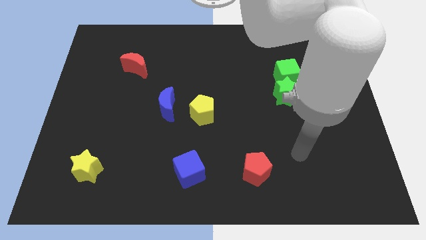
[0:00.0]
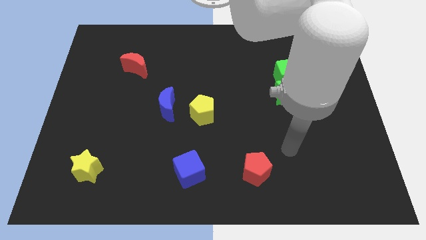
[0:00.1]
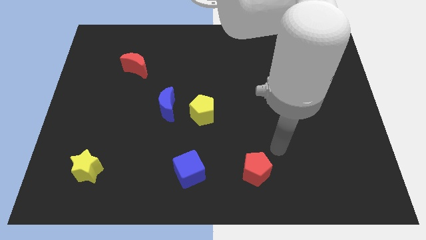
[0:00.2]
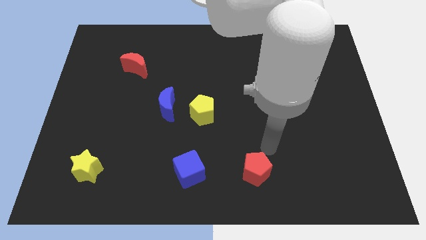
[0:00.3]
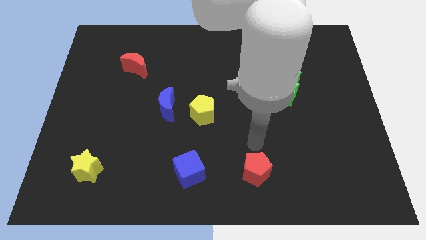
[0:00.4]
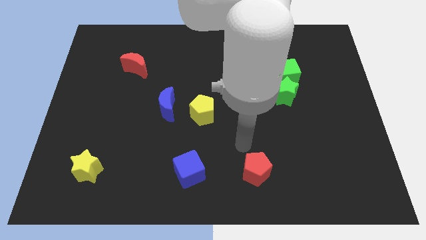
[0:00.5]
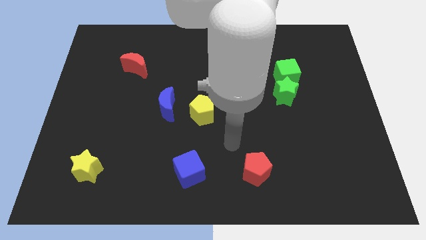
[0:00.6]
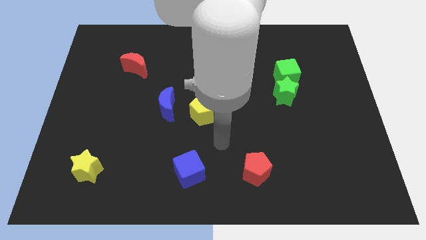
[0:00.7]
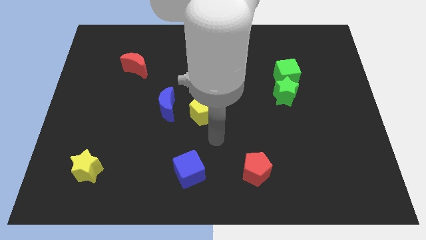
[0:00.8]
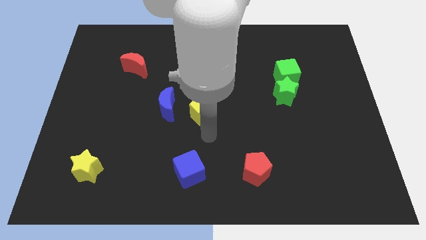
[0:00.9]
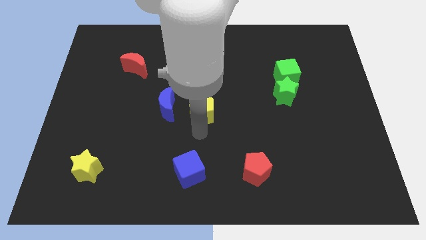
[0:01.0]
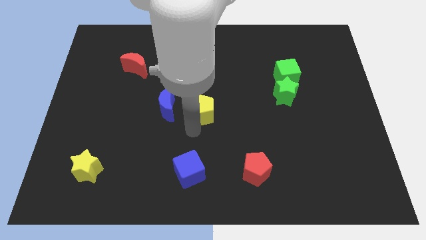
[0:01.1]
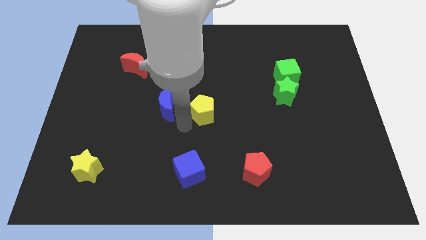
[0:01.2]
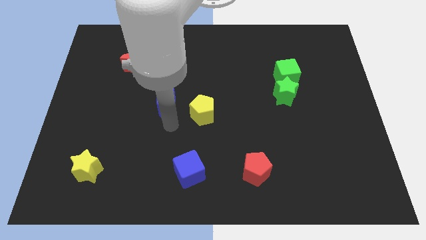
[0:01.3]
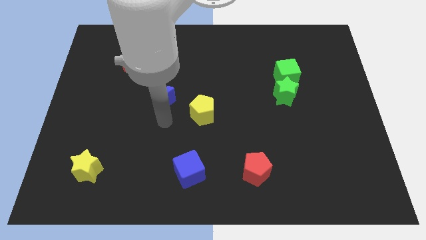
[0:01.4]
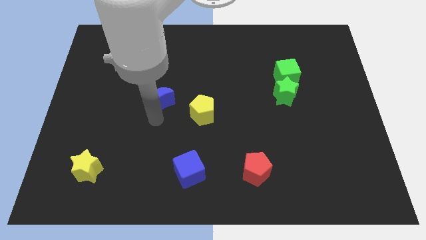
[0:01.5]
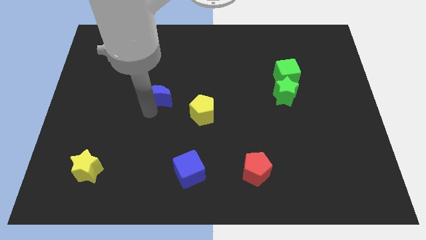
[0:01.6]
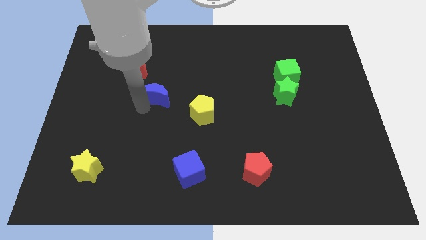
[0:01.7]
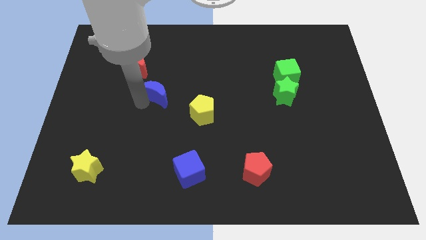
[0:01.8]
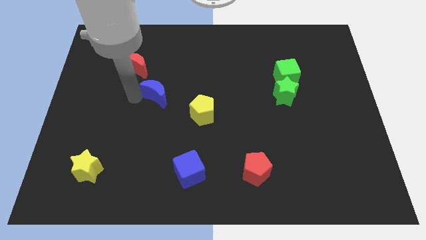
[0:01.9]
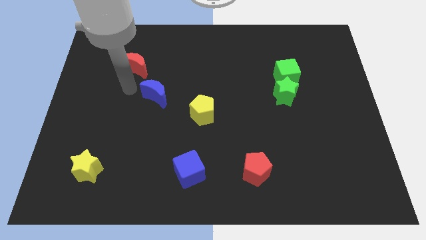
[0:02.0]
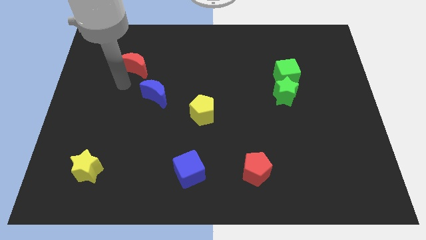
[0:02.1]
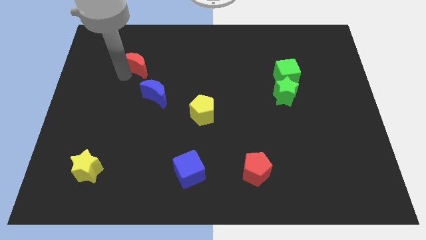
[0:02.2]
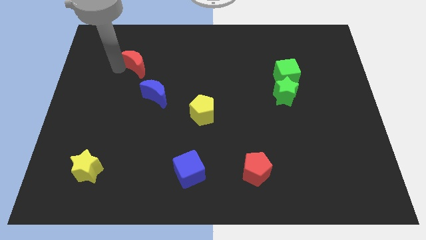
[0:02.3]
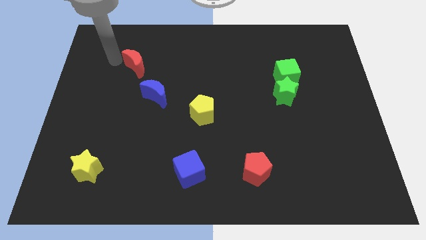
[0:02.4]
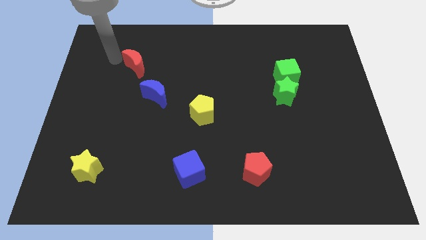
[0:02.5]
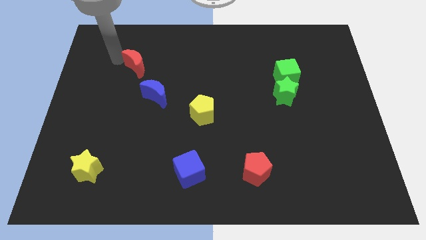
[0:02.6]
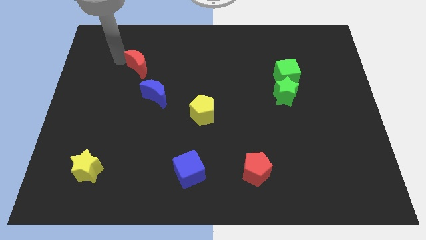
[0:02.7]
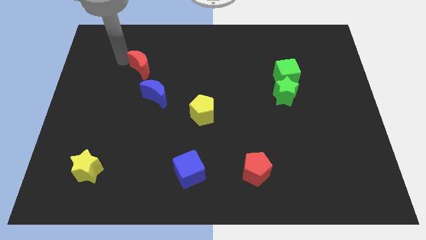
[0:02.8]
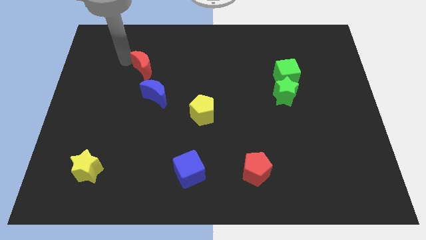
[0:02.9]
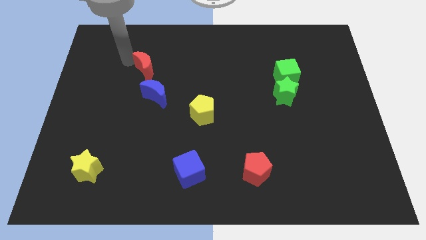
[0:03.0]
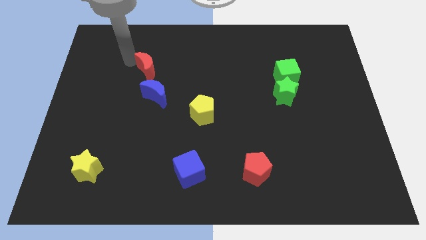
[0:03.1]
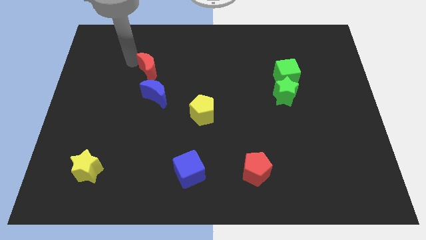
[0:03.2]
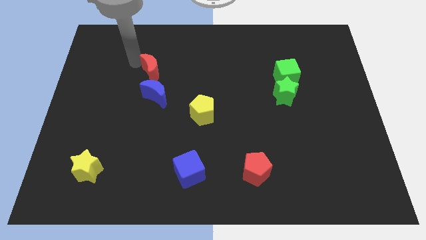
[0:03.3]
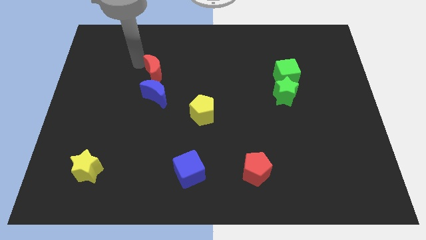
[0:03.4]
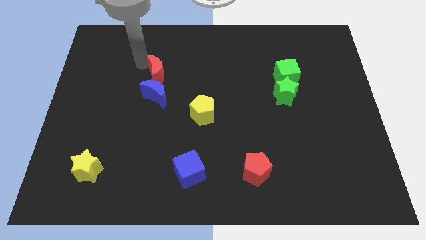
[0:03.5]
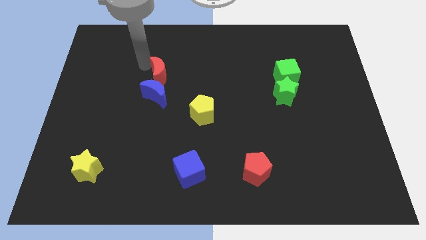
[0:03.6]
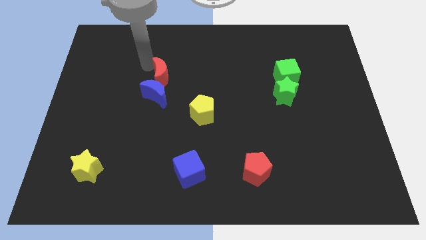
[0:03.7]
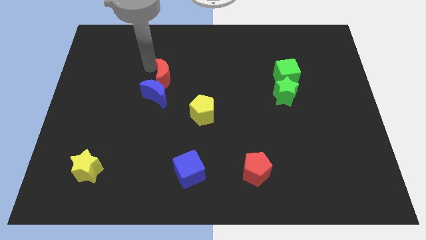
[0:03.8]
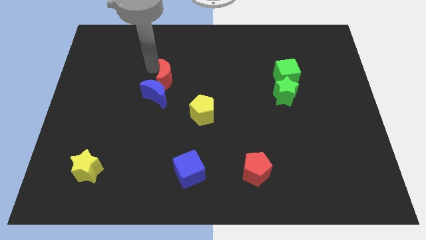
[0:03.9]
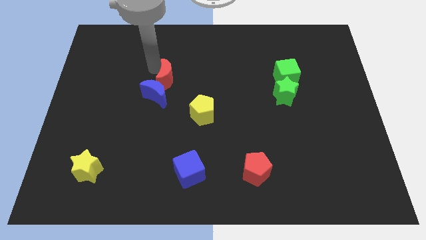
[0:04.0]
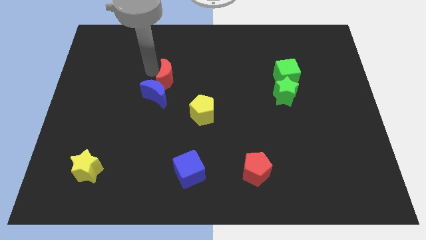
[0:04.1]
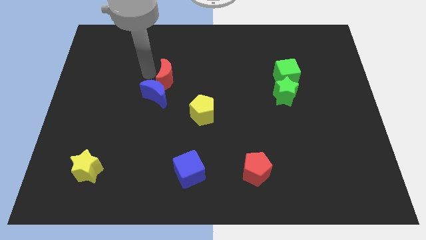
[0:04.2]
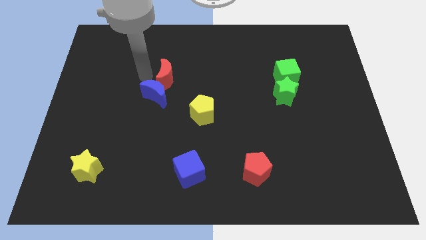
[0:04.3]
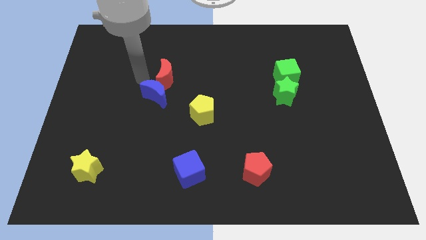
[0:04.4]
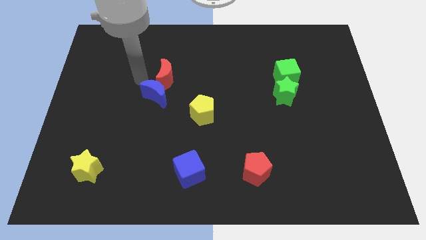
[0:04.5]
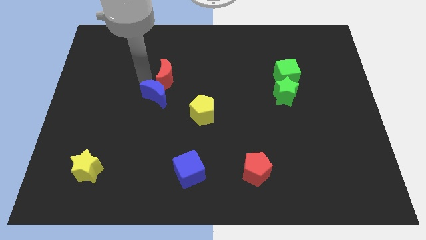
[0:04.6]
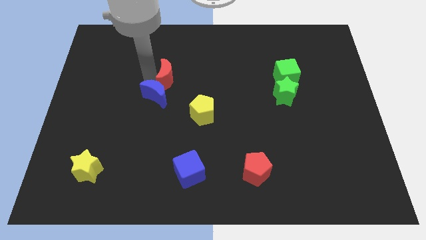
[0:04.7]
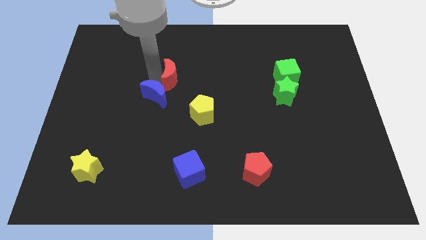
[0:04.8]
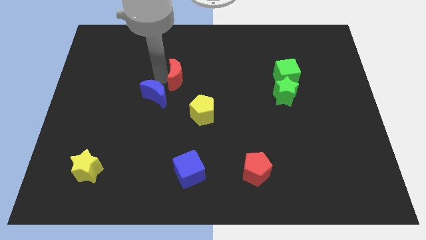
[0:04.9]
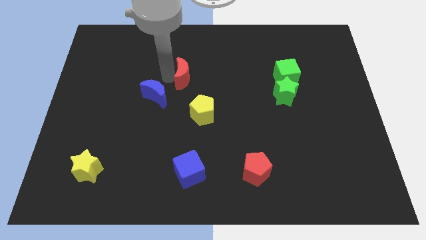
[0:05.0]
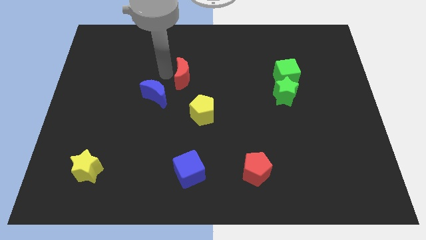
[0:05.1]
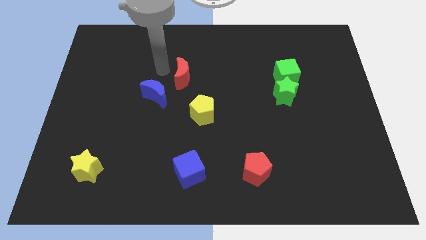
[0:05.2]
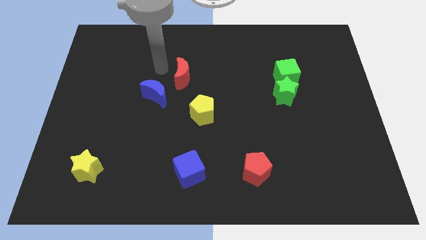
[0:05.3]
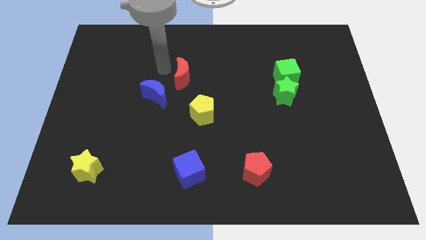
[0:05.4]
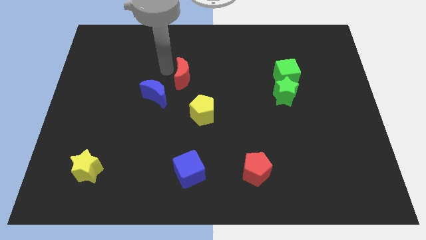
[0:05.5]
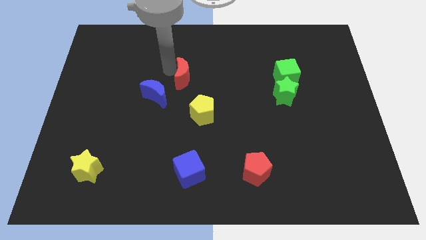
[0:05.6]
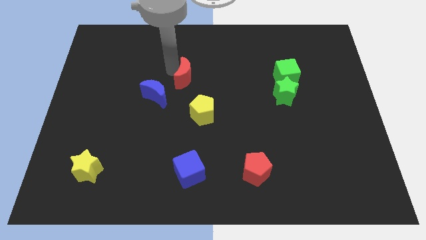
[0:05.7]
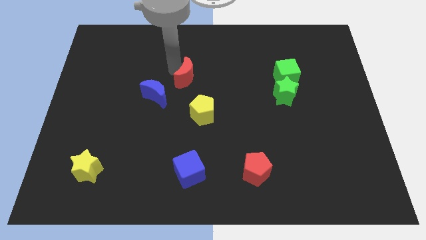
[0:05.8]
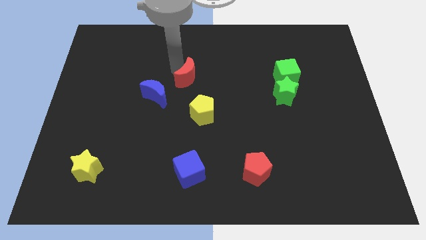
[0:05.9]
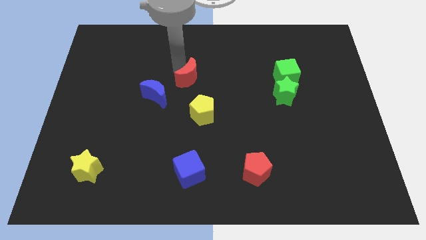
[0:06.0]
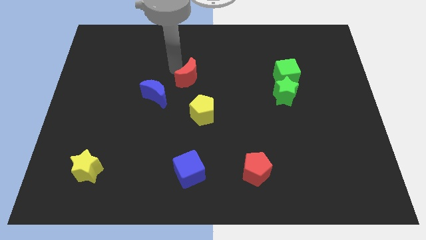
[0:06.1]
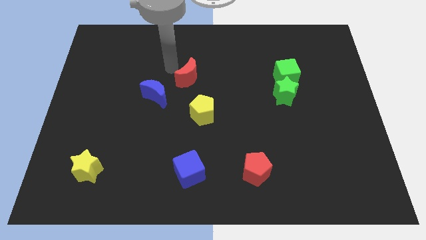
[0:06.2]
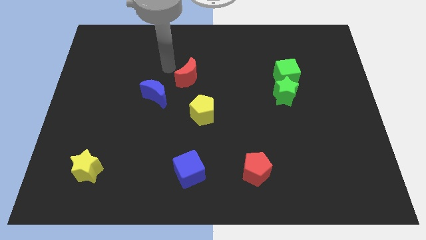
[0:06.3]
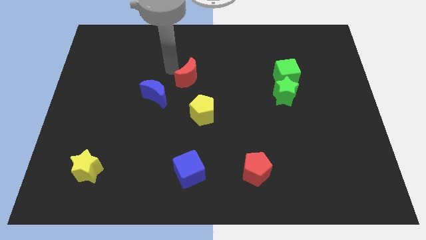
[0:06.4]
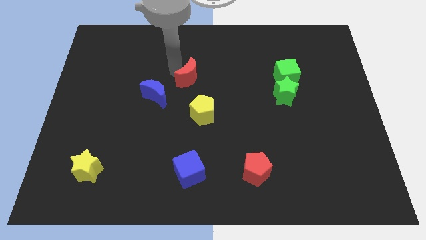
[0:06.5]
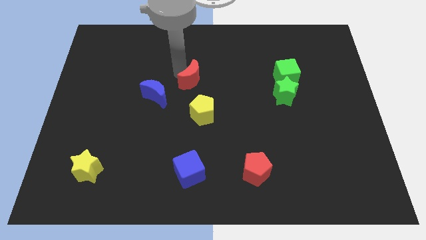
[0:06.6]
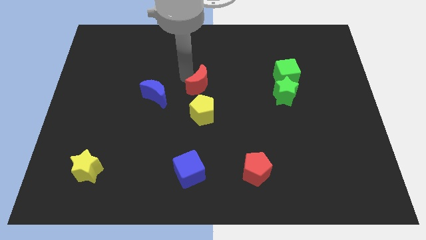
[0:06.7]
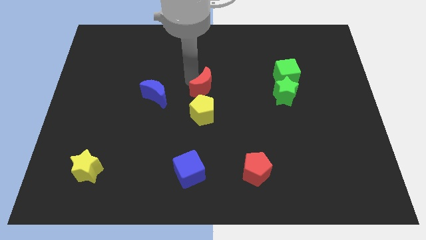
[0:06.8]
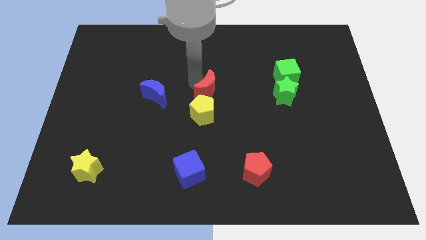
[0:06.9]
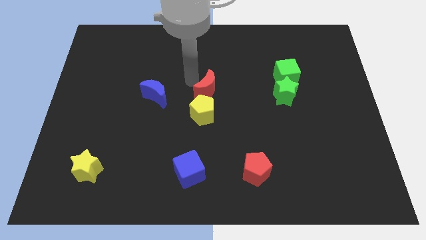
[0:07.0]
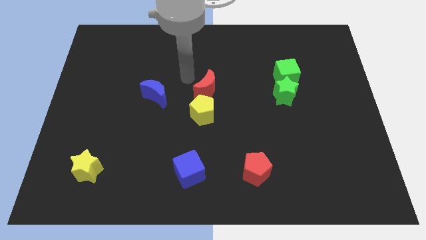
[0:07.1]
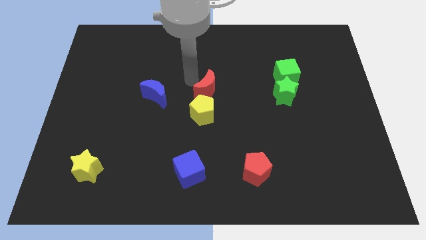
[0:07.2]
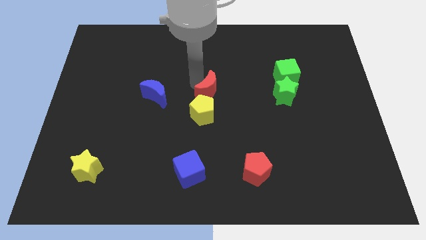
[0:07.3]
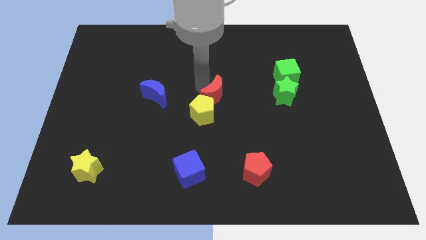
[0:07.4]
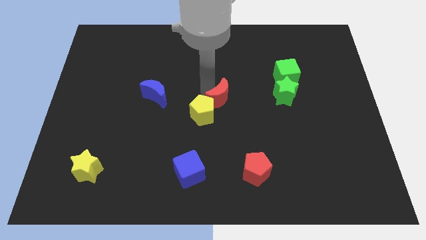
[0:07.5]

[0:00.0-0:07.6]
move the red moon to the right side of the yellow pentagon
